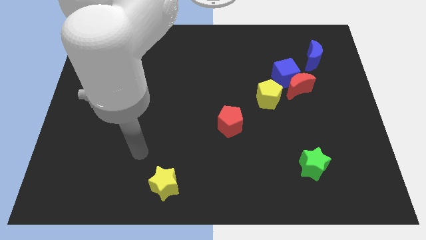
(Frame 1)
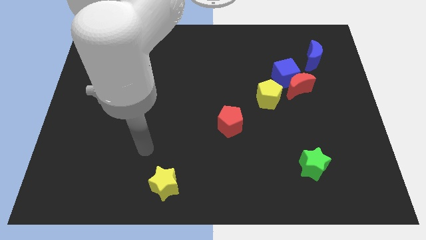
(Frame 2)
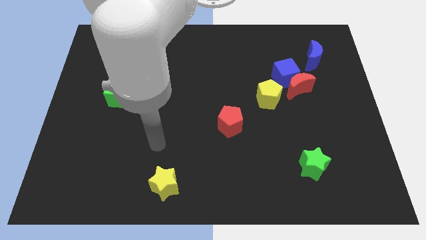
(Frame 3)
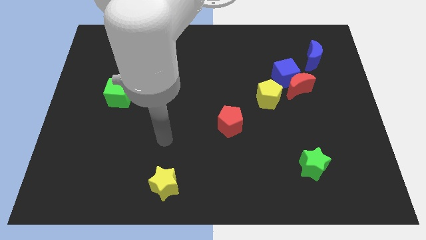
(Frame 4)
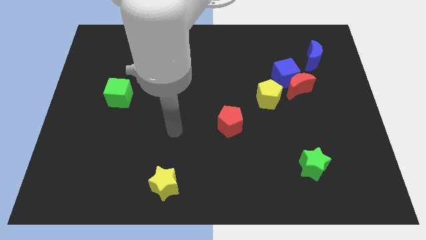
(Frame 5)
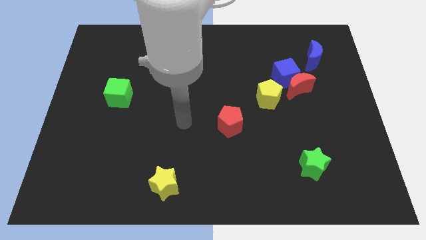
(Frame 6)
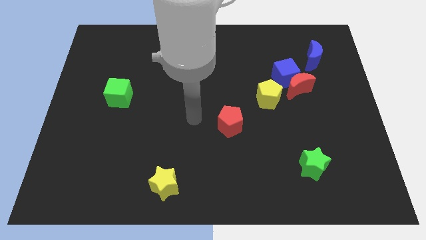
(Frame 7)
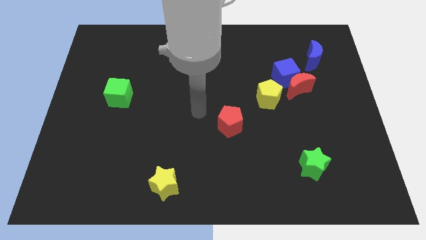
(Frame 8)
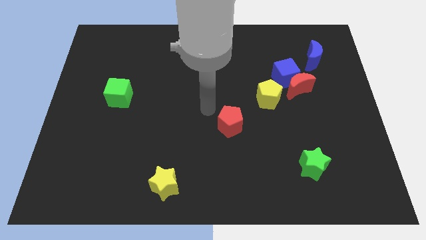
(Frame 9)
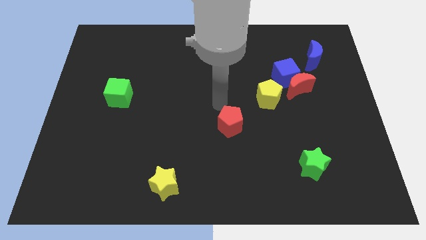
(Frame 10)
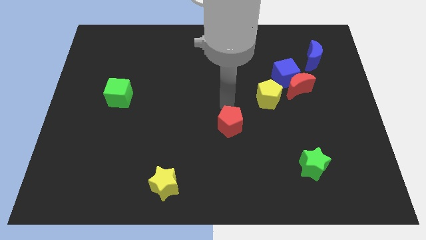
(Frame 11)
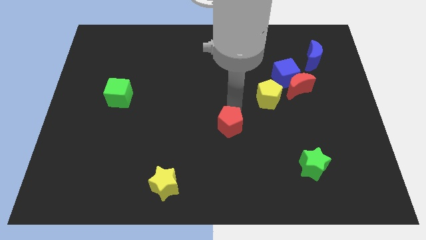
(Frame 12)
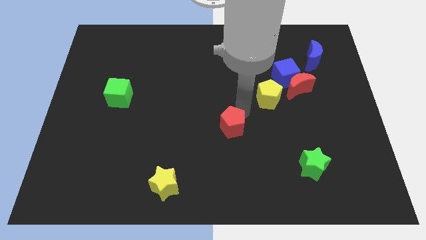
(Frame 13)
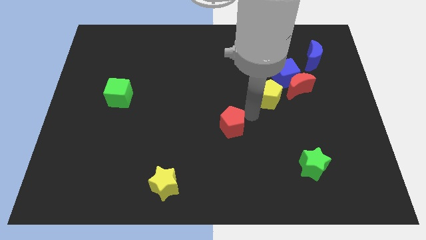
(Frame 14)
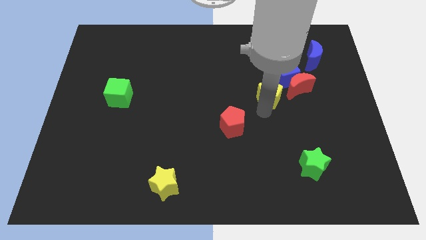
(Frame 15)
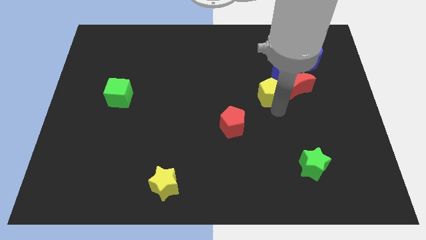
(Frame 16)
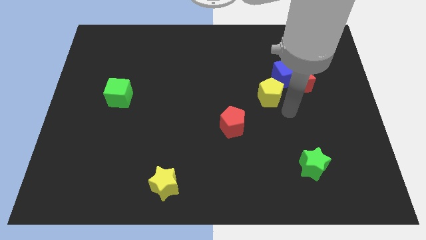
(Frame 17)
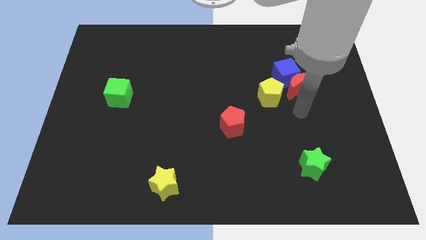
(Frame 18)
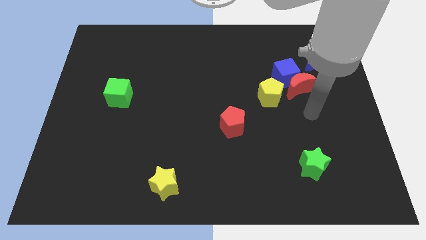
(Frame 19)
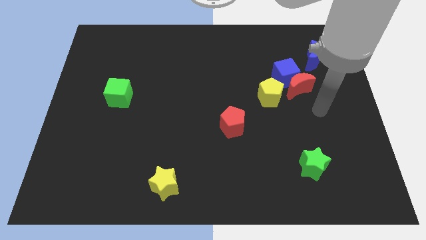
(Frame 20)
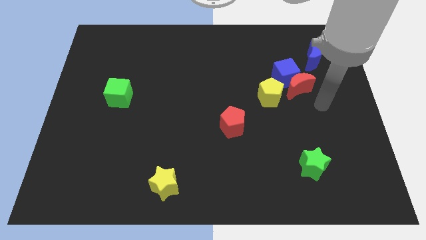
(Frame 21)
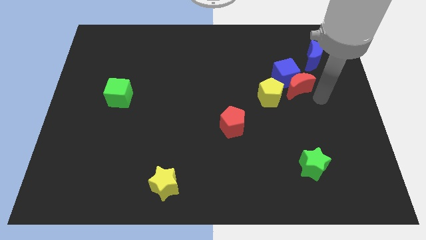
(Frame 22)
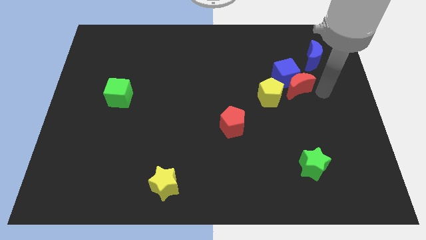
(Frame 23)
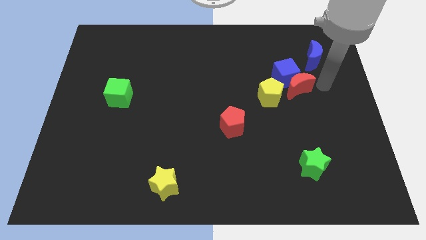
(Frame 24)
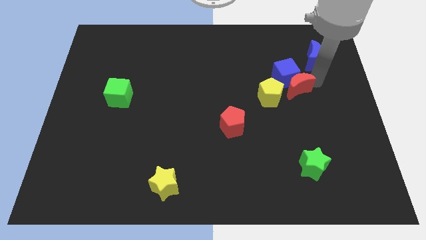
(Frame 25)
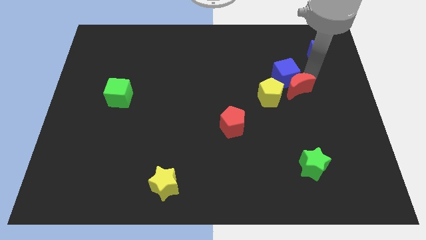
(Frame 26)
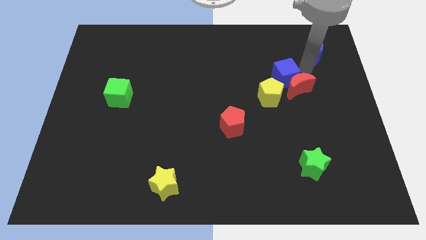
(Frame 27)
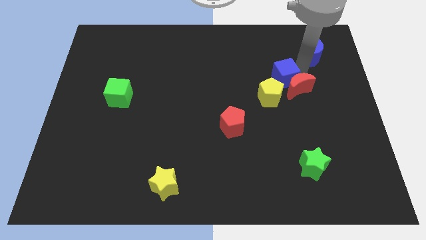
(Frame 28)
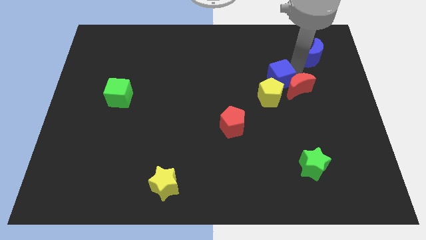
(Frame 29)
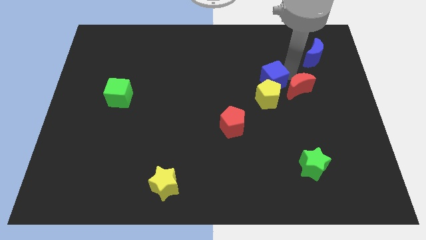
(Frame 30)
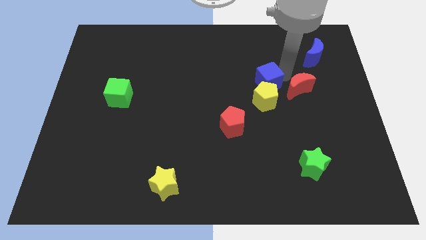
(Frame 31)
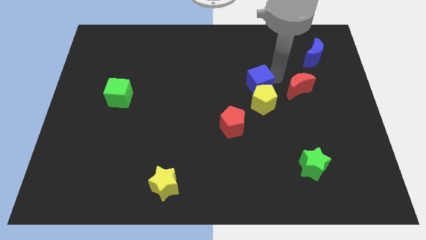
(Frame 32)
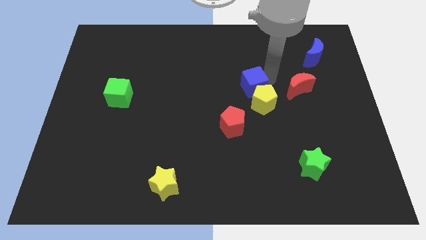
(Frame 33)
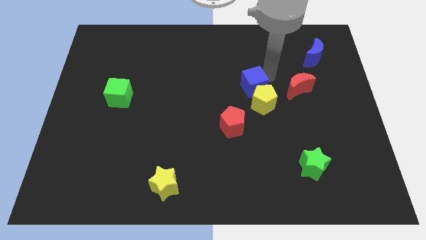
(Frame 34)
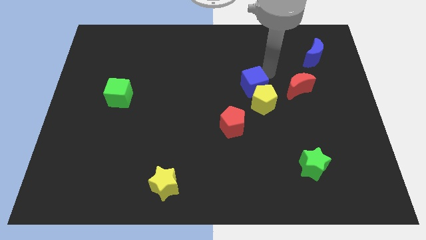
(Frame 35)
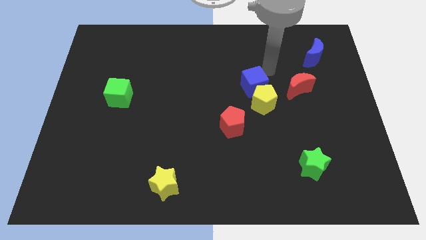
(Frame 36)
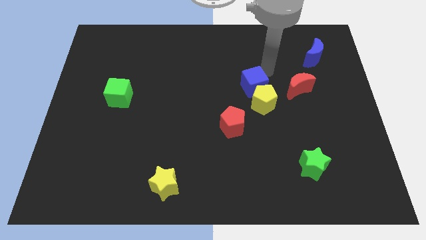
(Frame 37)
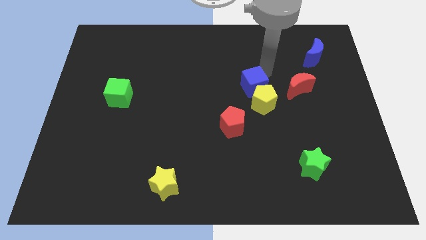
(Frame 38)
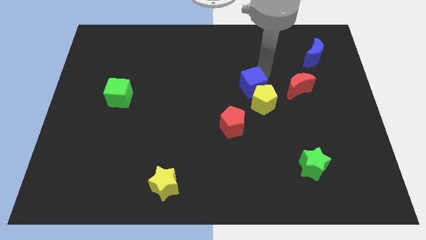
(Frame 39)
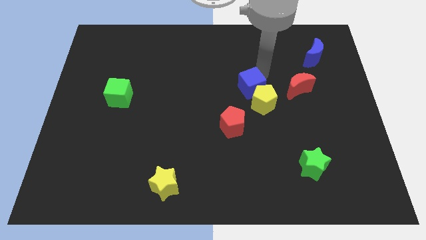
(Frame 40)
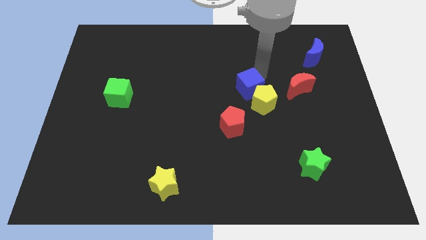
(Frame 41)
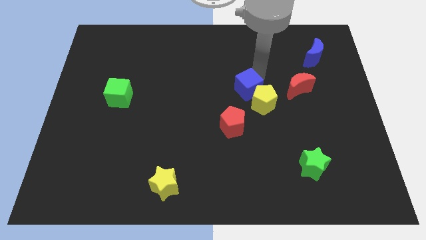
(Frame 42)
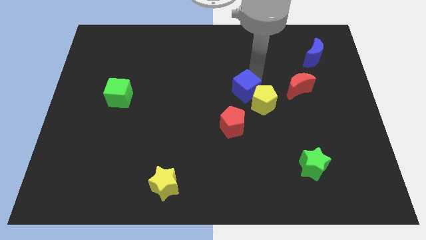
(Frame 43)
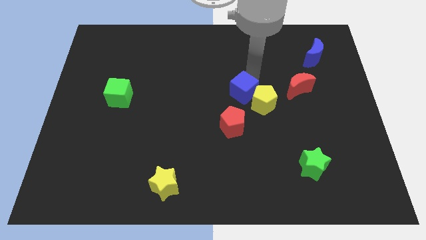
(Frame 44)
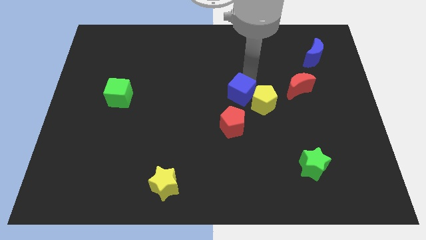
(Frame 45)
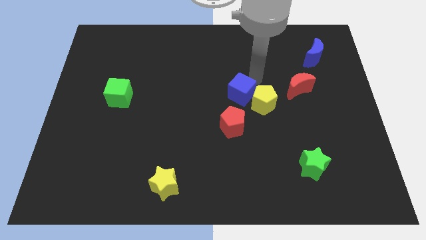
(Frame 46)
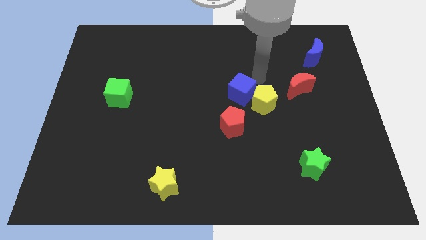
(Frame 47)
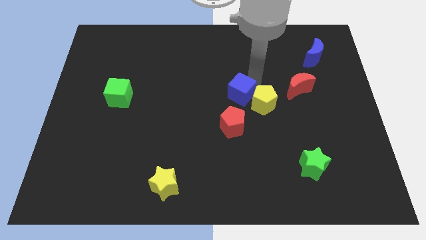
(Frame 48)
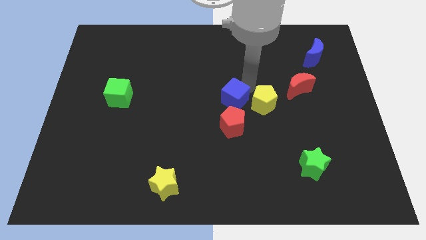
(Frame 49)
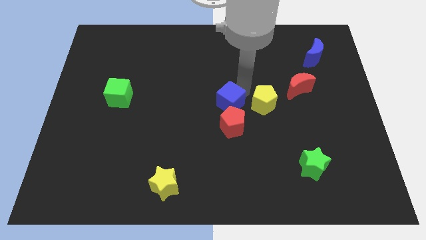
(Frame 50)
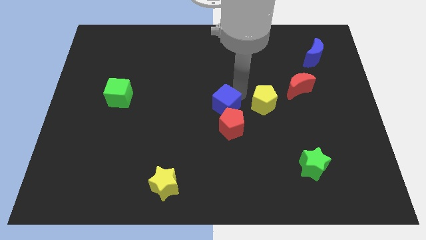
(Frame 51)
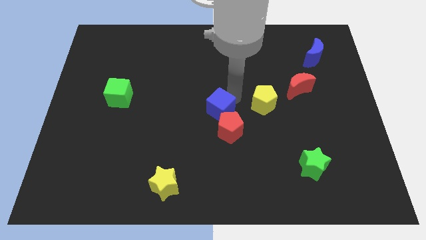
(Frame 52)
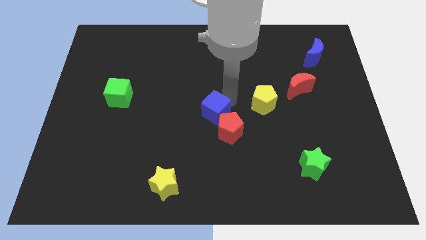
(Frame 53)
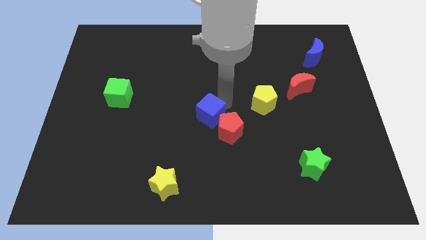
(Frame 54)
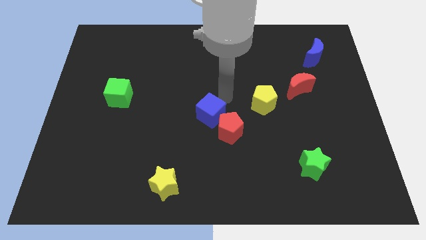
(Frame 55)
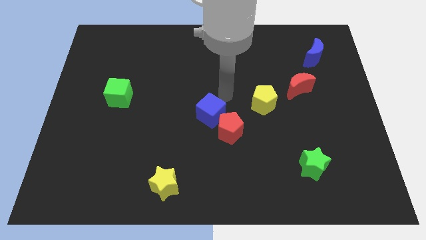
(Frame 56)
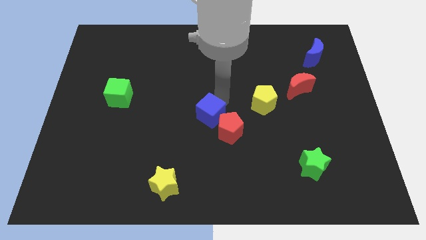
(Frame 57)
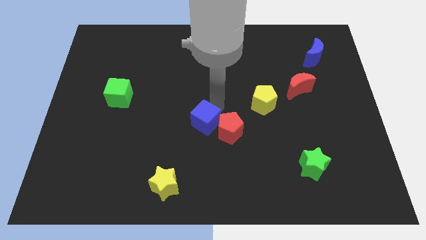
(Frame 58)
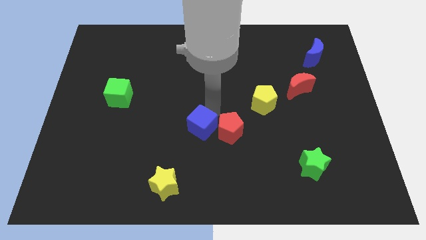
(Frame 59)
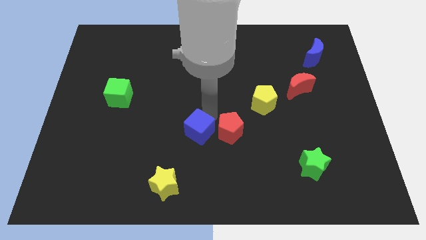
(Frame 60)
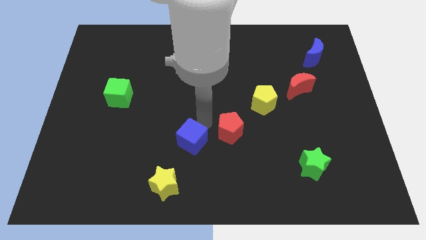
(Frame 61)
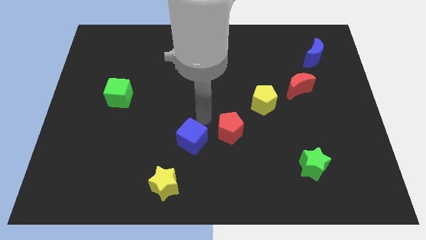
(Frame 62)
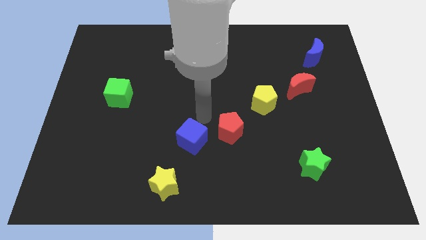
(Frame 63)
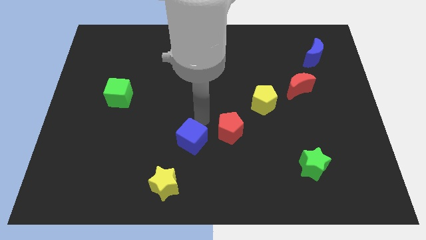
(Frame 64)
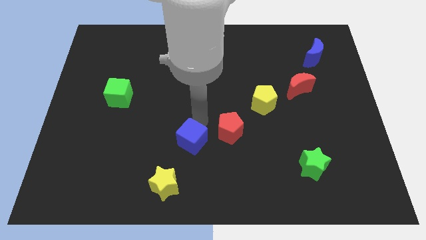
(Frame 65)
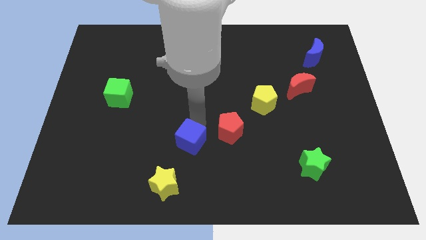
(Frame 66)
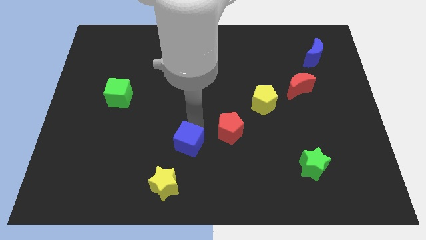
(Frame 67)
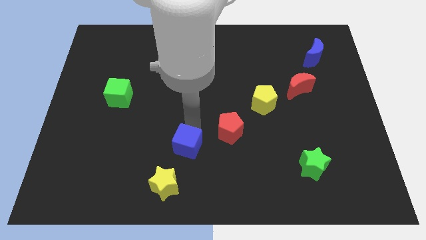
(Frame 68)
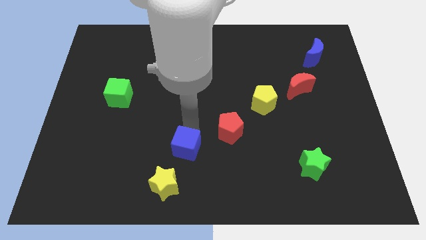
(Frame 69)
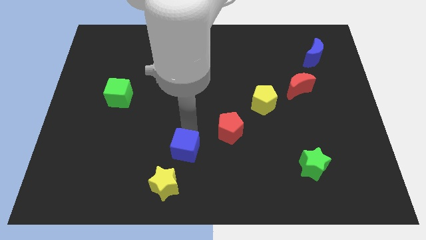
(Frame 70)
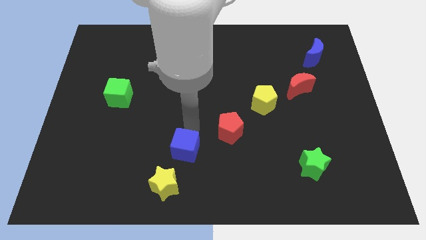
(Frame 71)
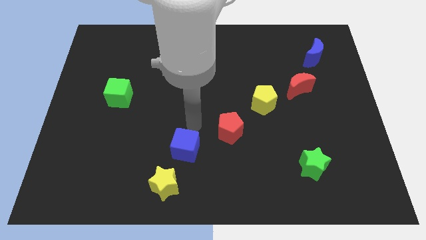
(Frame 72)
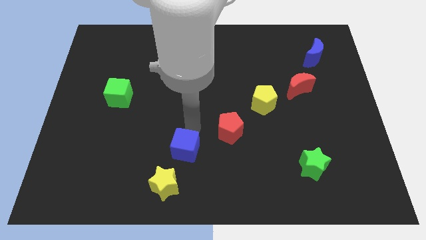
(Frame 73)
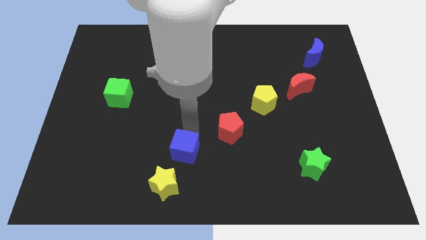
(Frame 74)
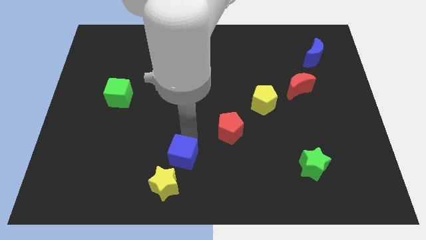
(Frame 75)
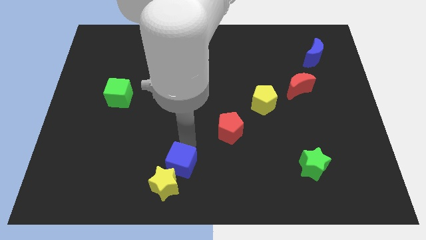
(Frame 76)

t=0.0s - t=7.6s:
slide the blue cube close to the yellow star
